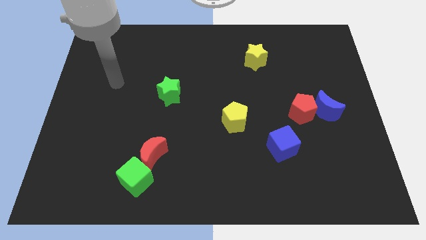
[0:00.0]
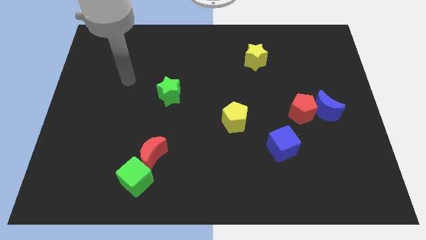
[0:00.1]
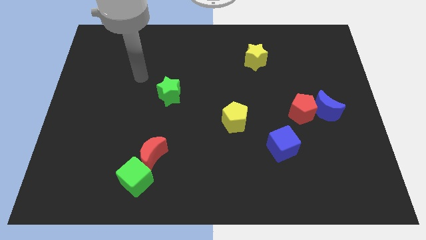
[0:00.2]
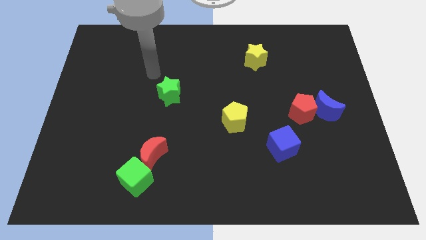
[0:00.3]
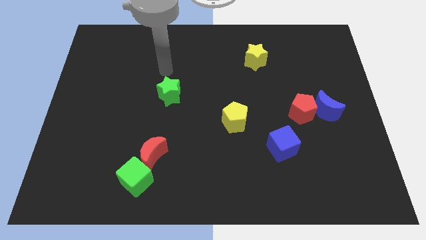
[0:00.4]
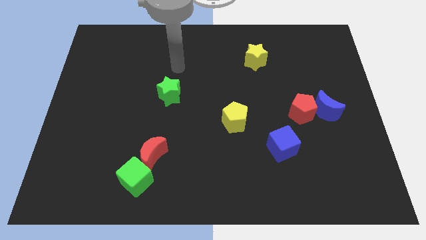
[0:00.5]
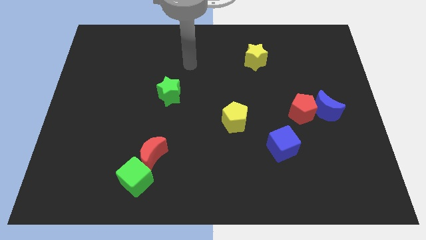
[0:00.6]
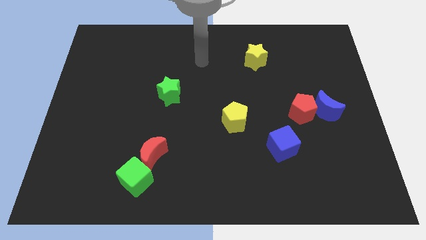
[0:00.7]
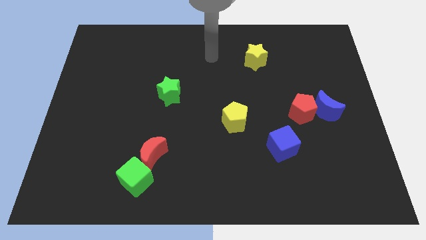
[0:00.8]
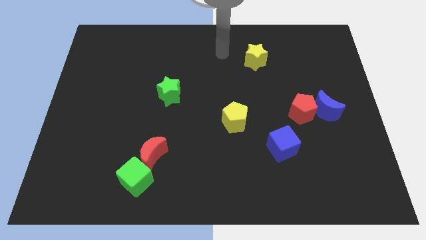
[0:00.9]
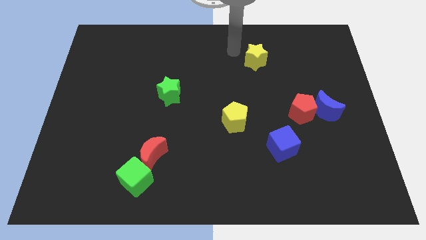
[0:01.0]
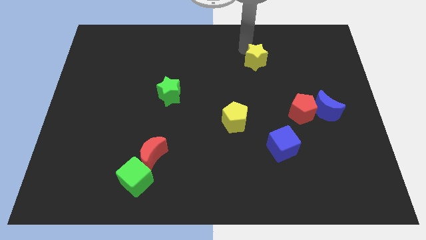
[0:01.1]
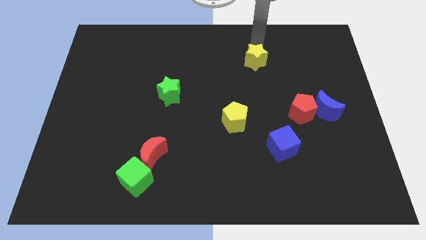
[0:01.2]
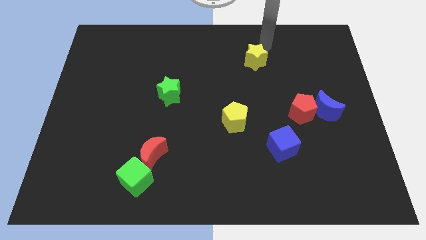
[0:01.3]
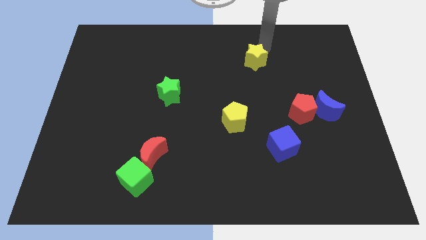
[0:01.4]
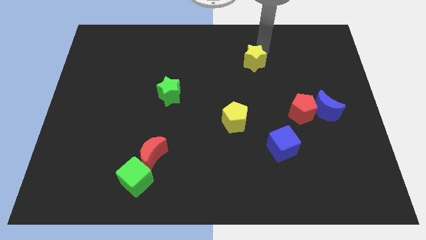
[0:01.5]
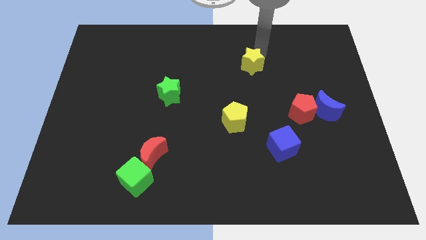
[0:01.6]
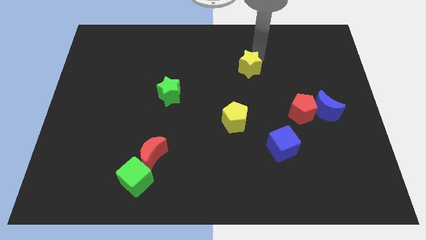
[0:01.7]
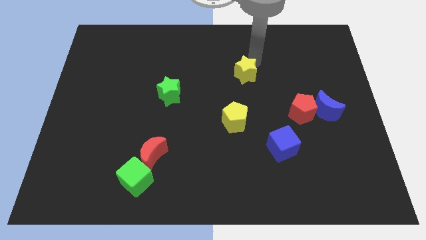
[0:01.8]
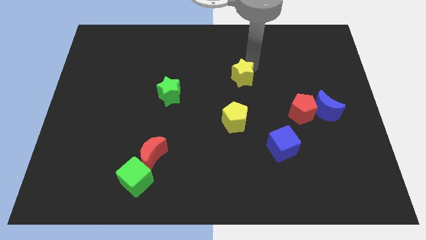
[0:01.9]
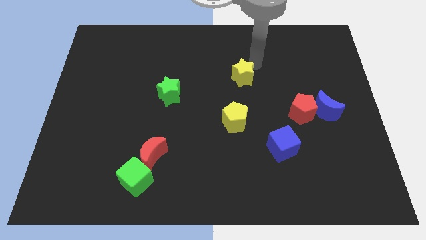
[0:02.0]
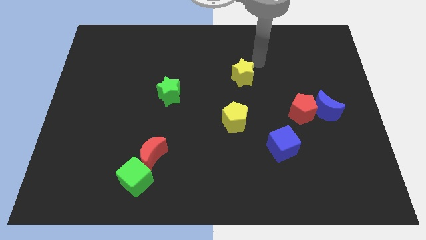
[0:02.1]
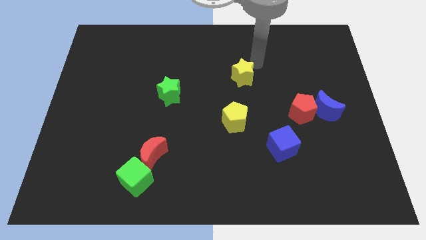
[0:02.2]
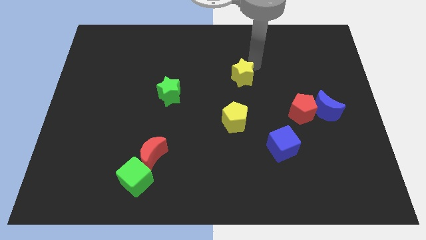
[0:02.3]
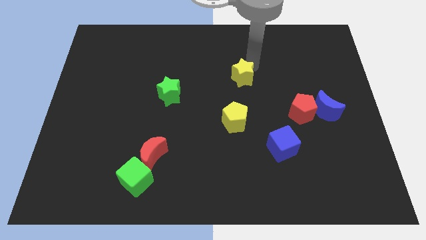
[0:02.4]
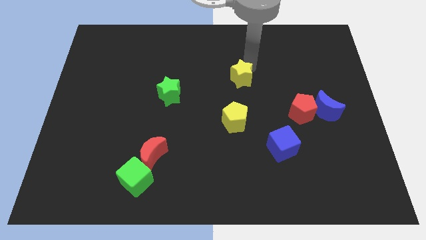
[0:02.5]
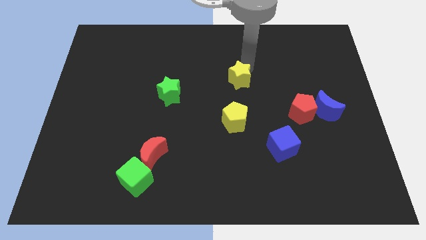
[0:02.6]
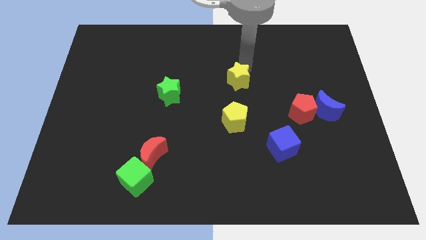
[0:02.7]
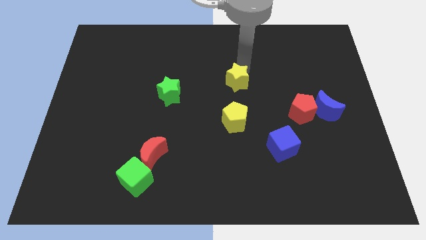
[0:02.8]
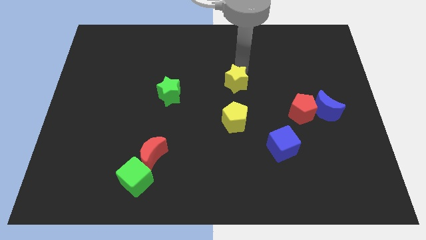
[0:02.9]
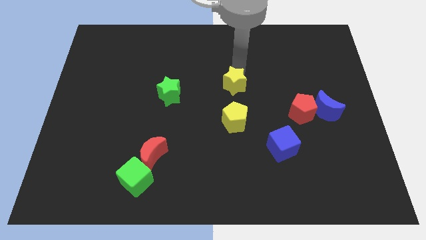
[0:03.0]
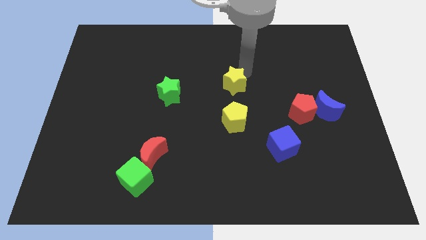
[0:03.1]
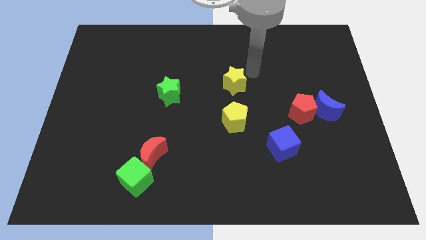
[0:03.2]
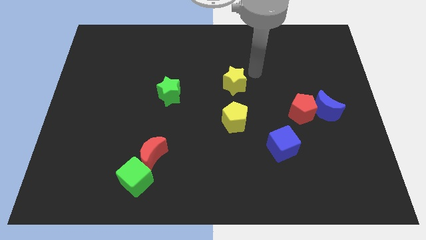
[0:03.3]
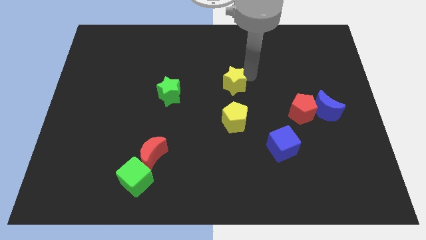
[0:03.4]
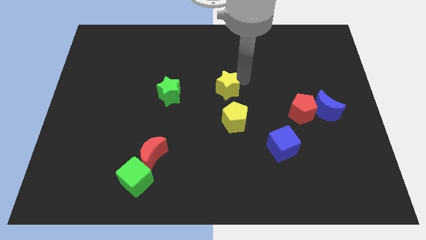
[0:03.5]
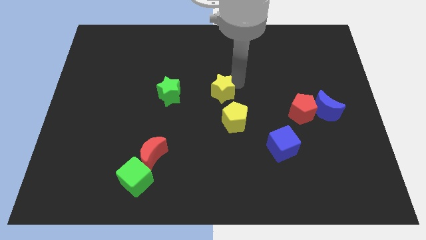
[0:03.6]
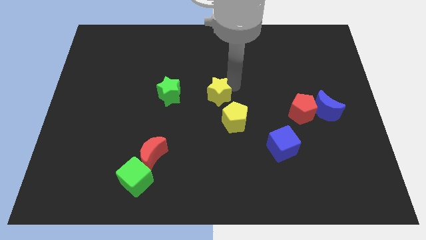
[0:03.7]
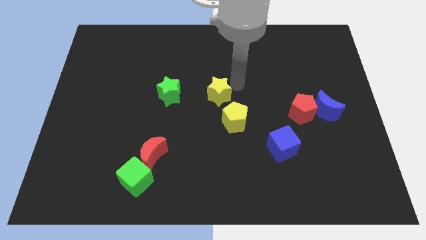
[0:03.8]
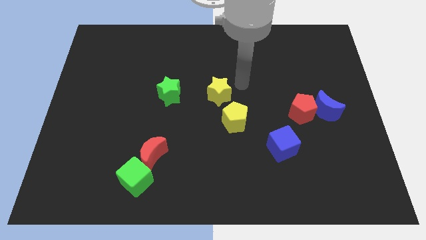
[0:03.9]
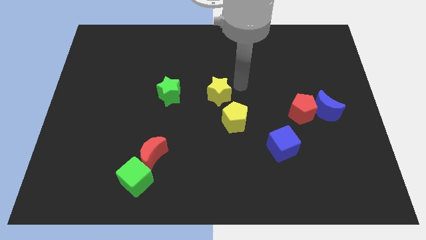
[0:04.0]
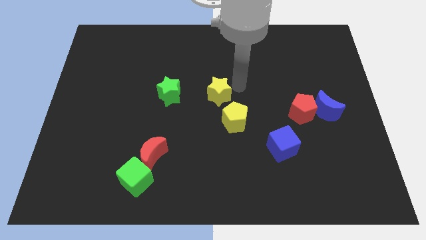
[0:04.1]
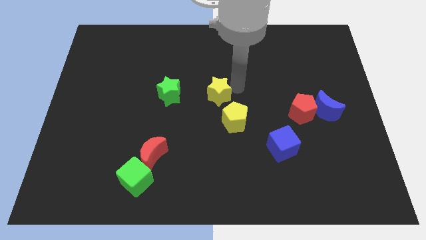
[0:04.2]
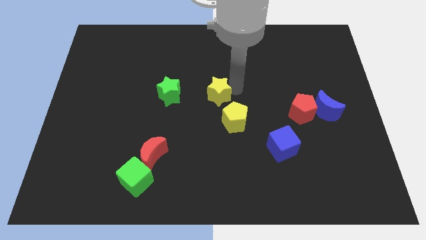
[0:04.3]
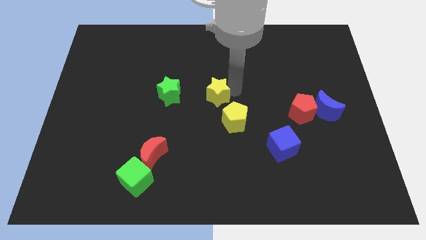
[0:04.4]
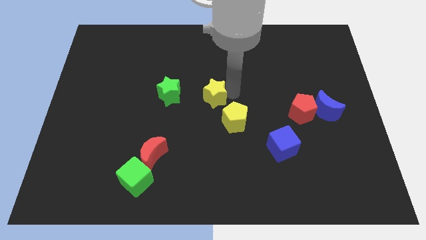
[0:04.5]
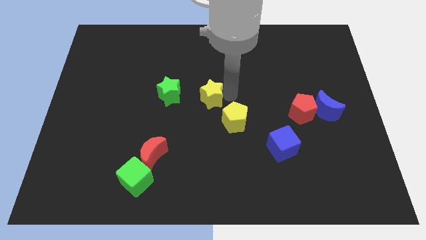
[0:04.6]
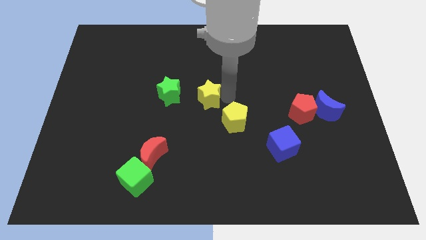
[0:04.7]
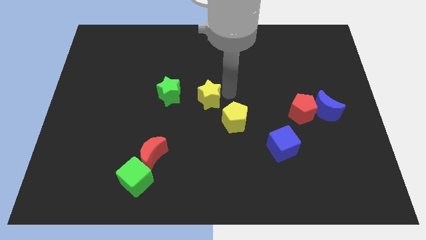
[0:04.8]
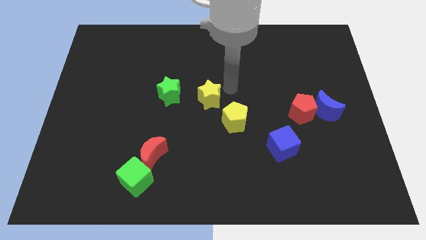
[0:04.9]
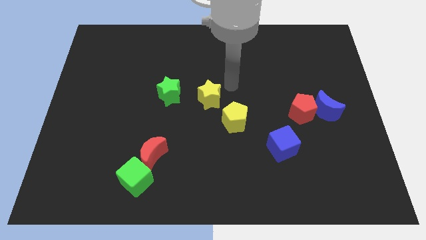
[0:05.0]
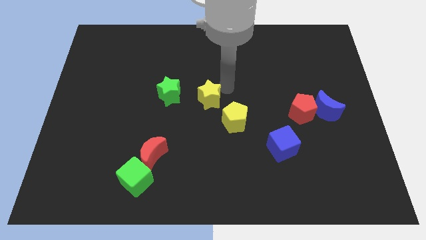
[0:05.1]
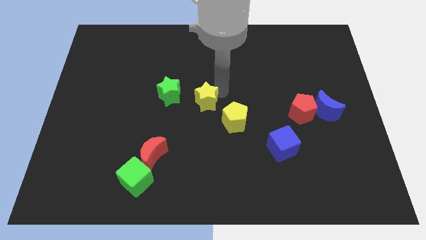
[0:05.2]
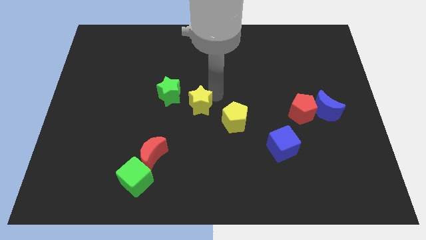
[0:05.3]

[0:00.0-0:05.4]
push the yellow star to the bottom right of the green star
